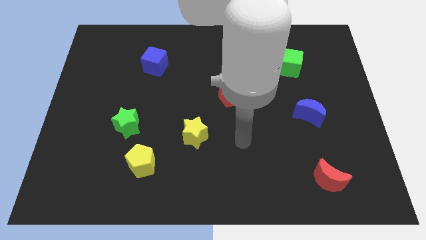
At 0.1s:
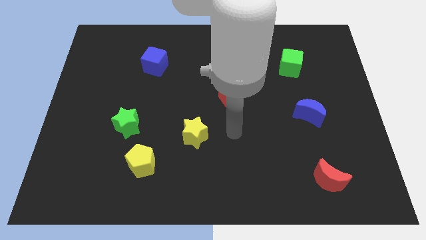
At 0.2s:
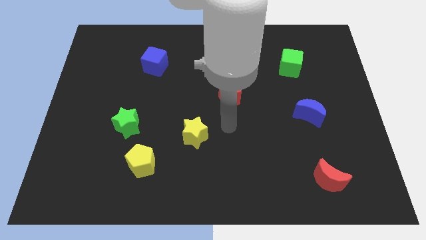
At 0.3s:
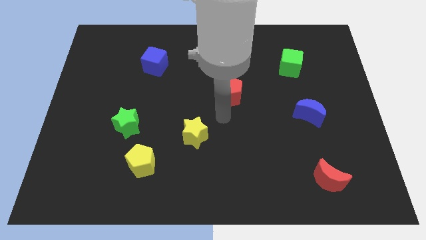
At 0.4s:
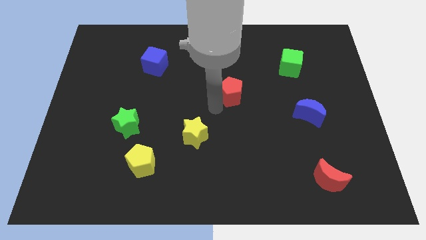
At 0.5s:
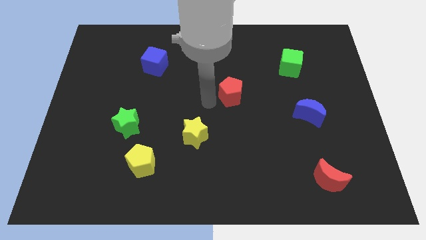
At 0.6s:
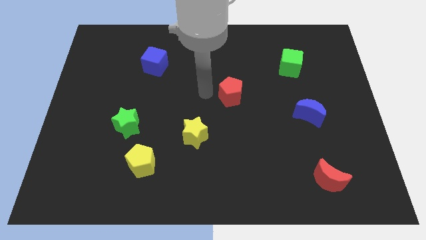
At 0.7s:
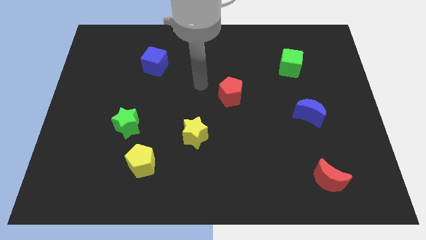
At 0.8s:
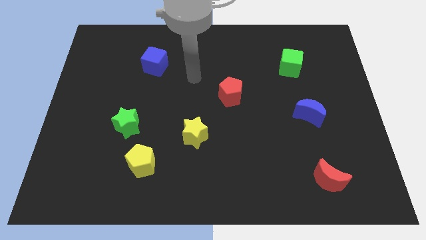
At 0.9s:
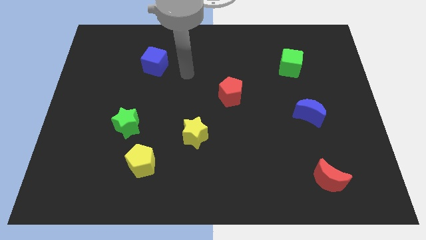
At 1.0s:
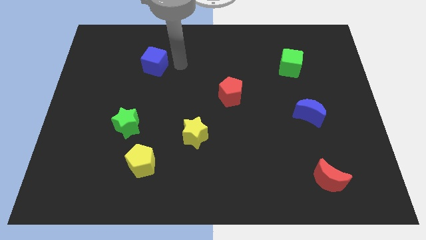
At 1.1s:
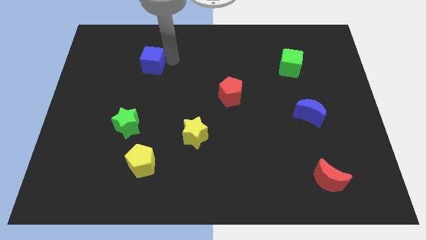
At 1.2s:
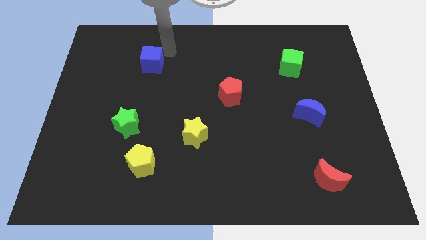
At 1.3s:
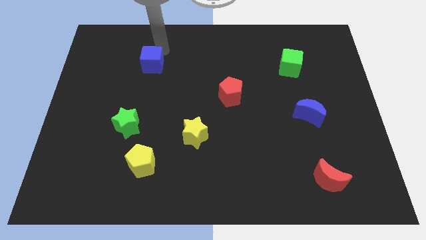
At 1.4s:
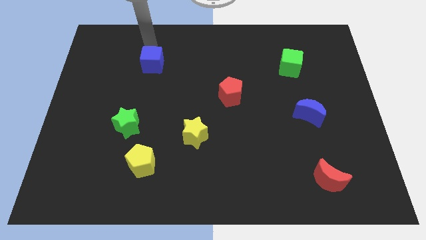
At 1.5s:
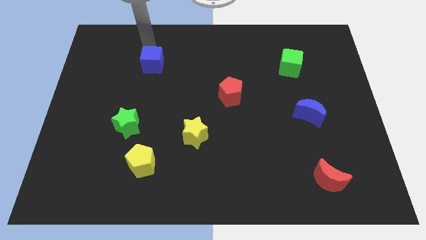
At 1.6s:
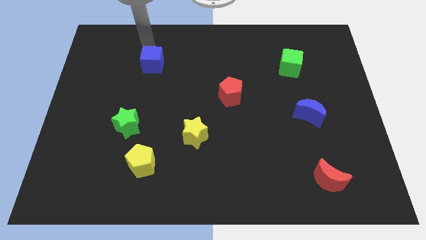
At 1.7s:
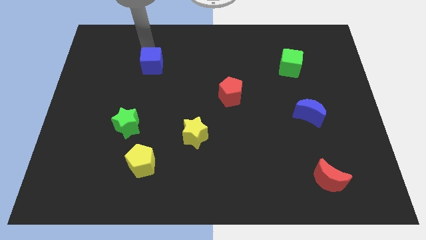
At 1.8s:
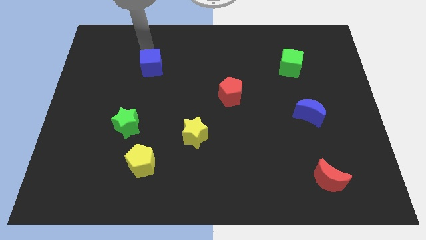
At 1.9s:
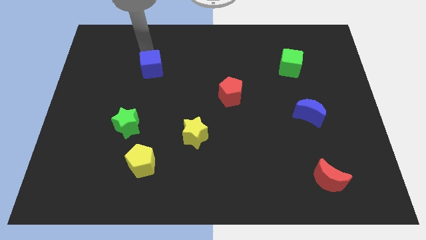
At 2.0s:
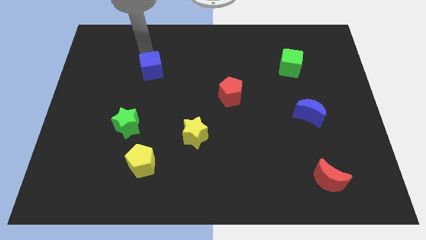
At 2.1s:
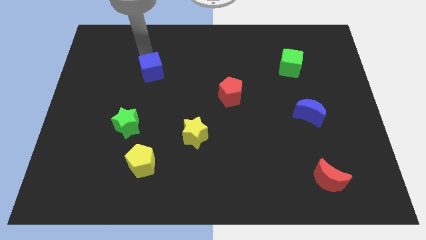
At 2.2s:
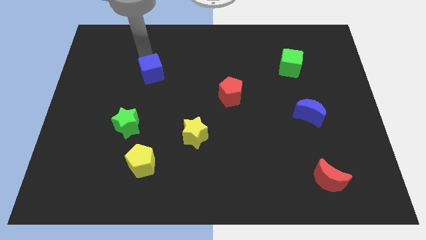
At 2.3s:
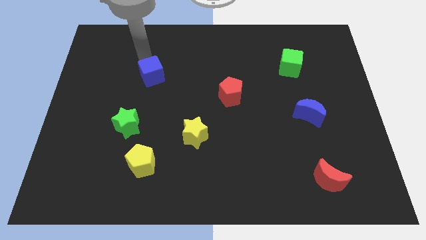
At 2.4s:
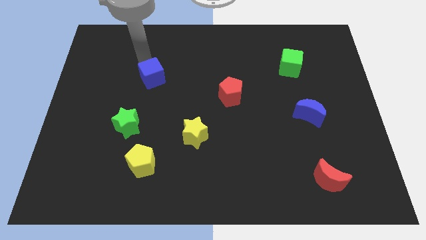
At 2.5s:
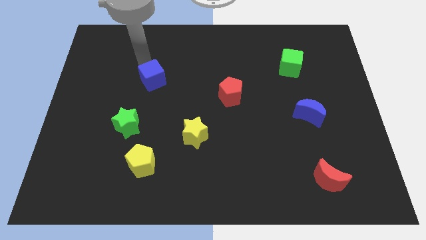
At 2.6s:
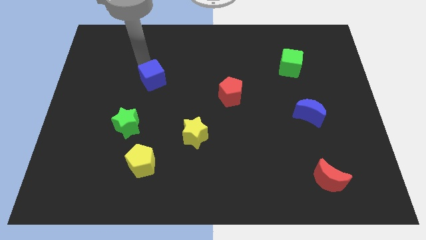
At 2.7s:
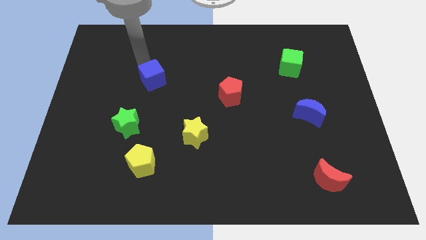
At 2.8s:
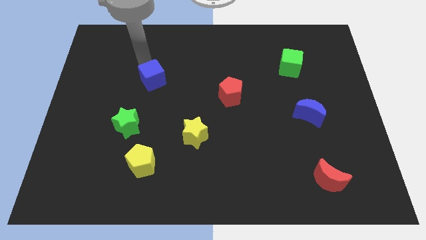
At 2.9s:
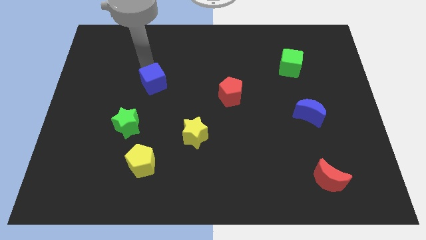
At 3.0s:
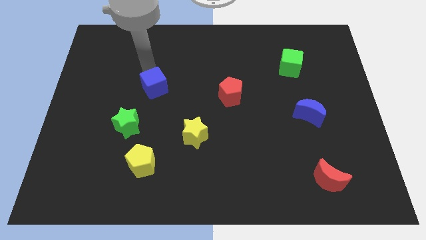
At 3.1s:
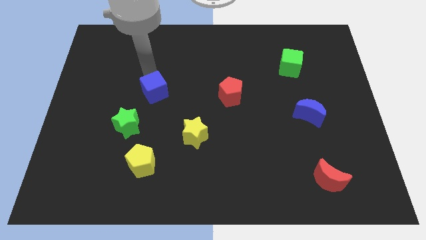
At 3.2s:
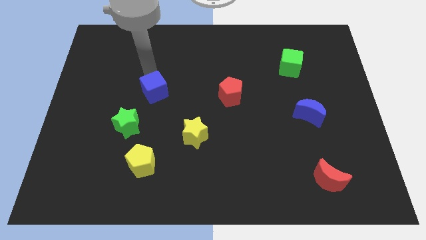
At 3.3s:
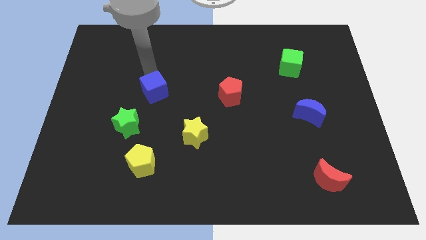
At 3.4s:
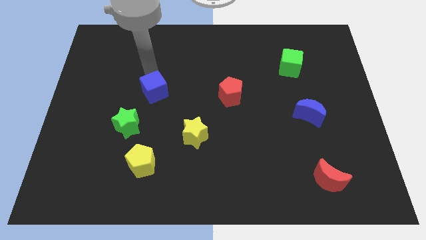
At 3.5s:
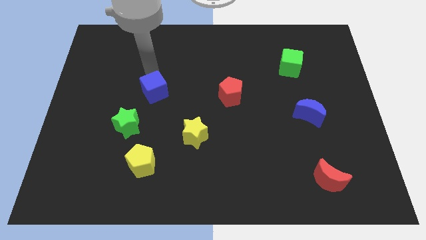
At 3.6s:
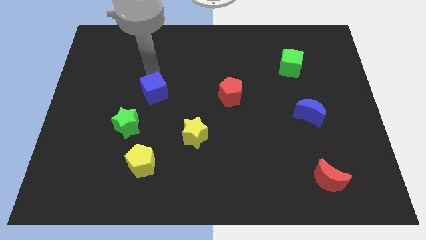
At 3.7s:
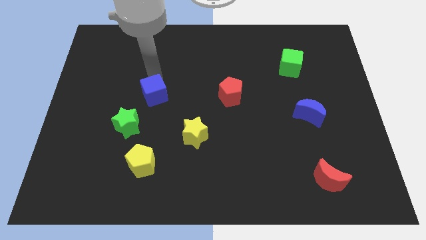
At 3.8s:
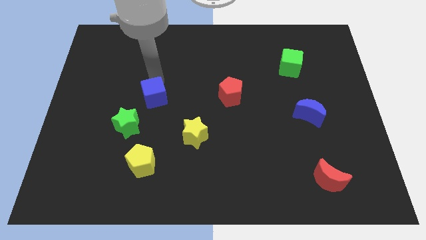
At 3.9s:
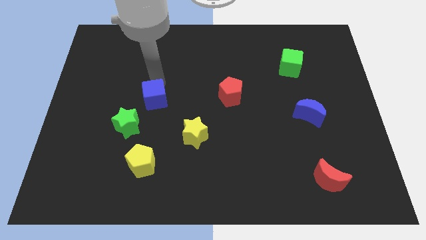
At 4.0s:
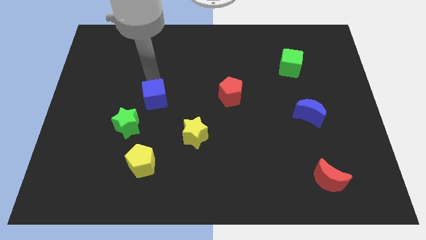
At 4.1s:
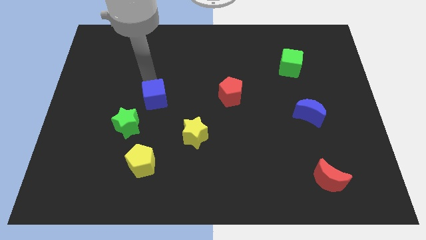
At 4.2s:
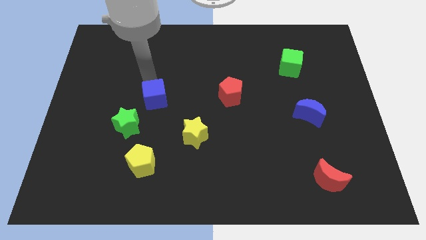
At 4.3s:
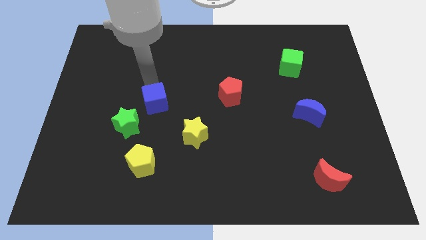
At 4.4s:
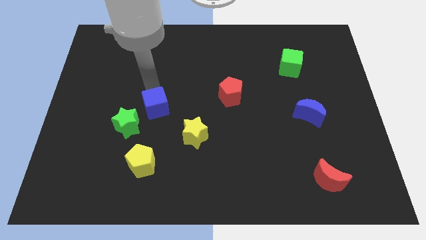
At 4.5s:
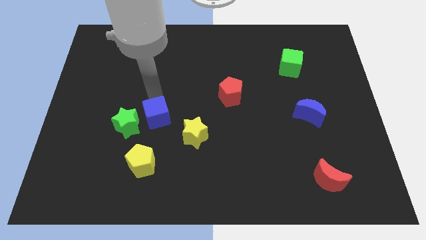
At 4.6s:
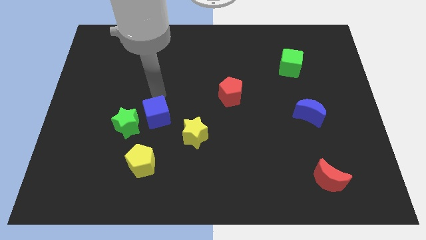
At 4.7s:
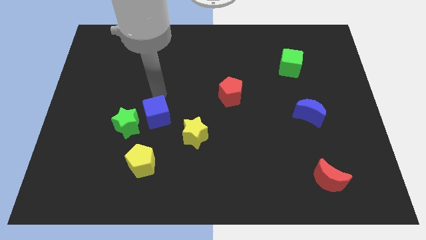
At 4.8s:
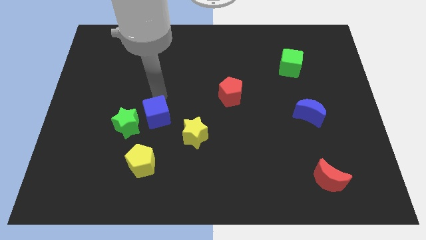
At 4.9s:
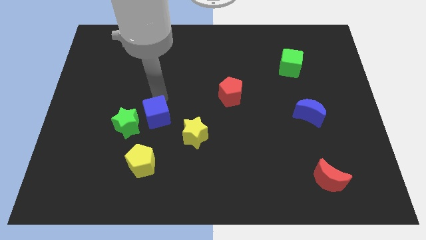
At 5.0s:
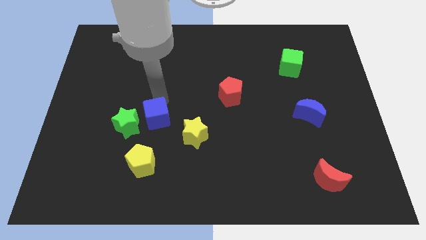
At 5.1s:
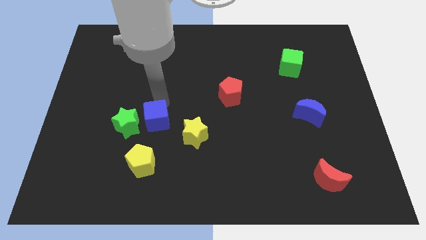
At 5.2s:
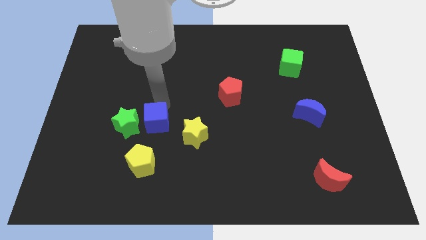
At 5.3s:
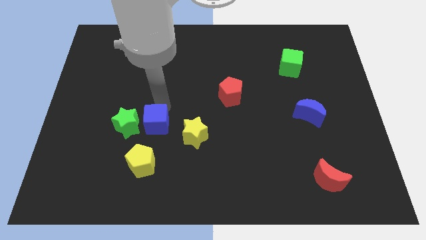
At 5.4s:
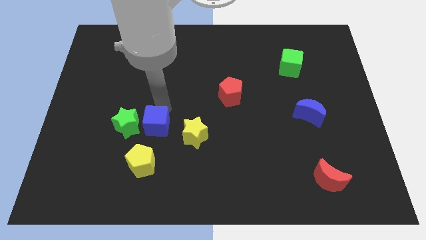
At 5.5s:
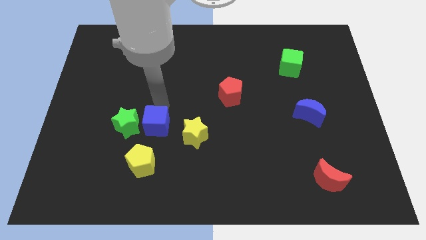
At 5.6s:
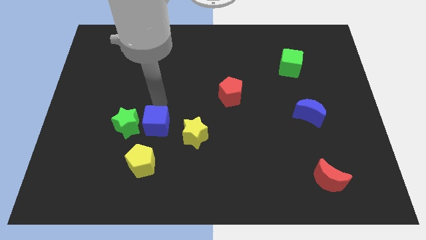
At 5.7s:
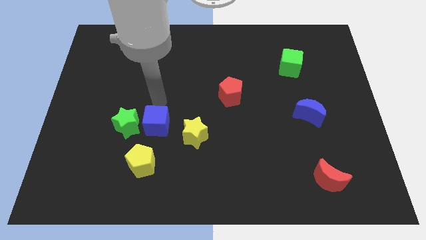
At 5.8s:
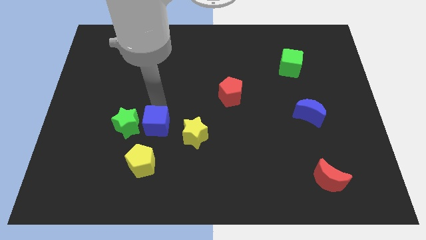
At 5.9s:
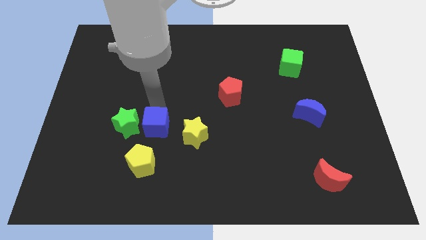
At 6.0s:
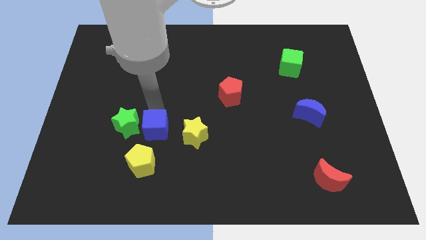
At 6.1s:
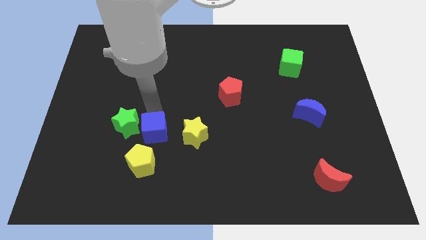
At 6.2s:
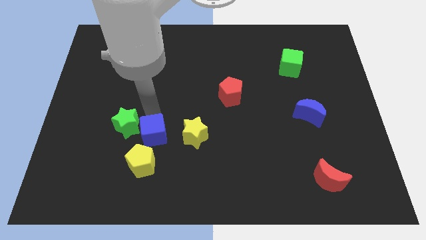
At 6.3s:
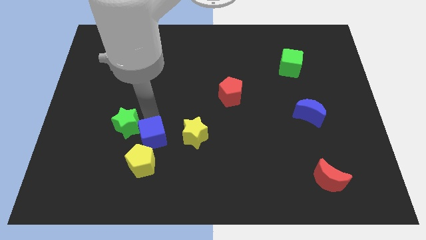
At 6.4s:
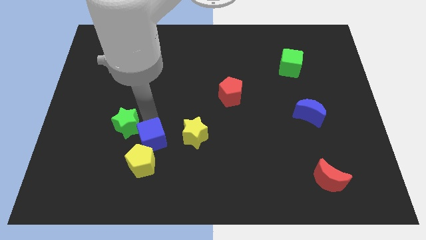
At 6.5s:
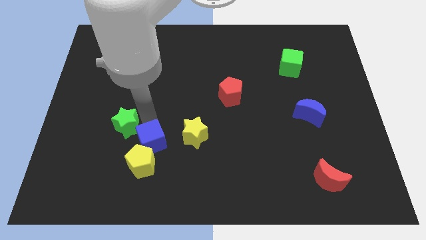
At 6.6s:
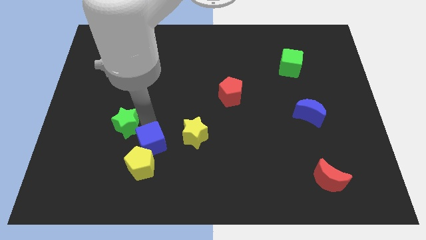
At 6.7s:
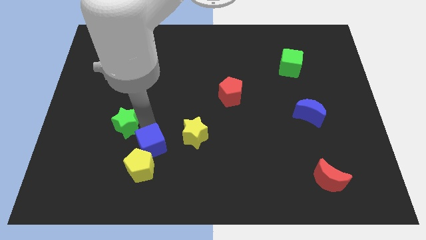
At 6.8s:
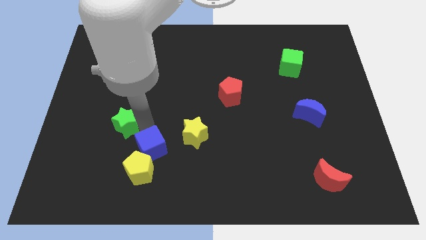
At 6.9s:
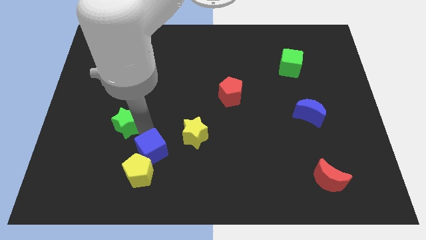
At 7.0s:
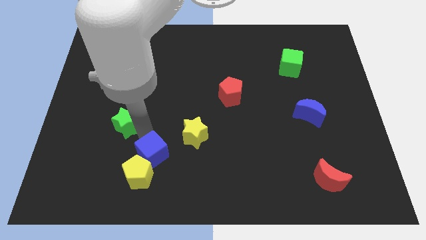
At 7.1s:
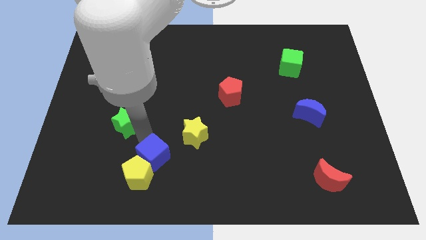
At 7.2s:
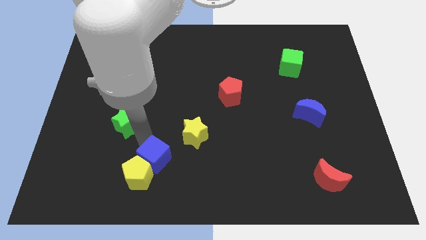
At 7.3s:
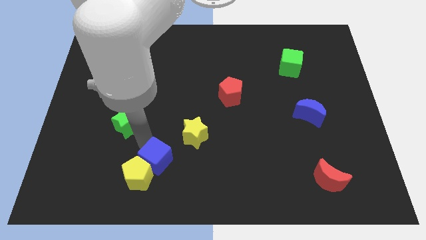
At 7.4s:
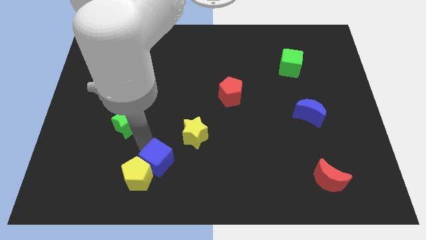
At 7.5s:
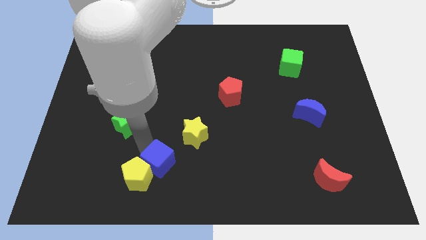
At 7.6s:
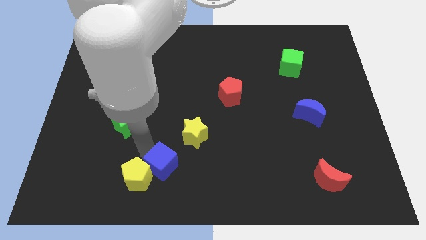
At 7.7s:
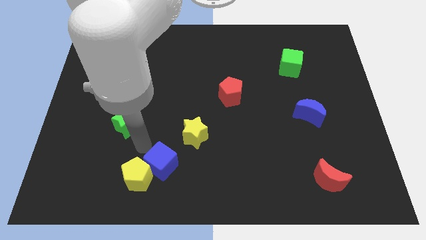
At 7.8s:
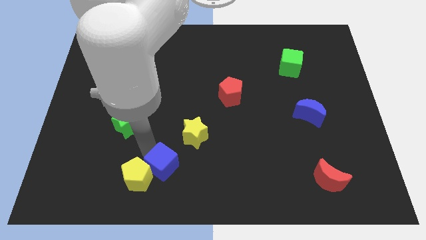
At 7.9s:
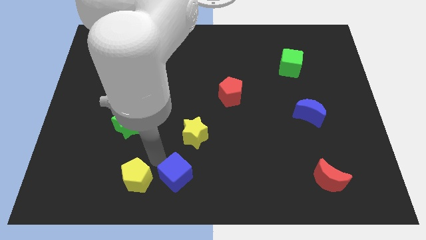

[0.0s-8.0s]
move the blue cube to the bottom side
